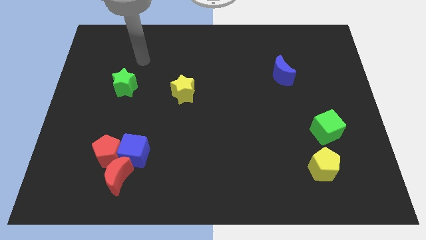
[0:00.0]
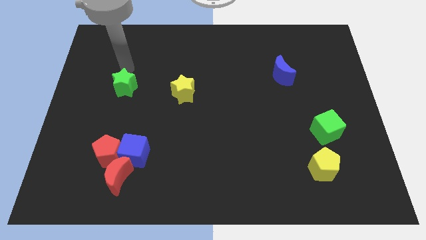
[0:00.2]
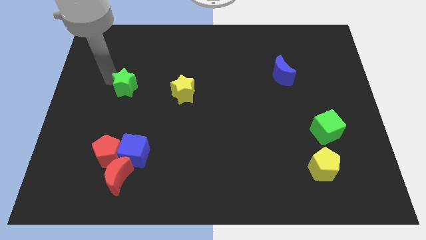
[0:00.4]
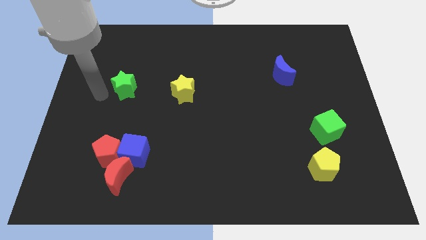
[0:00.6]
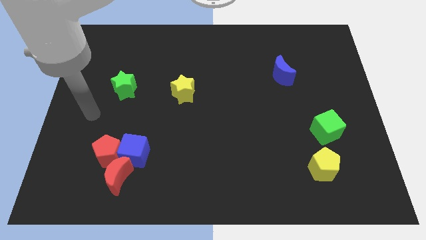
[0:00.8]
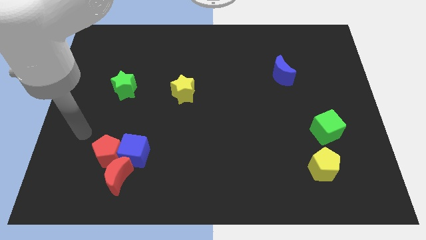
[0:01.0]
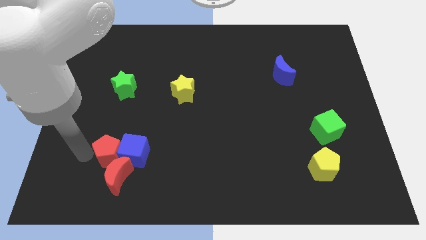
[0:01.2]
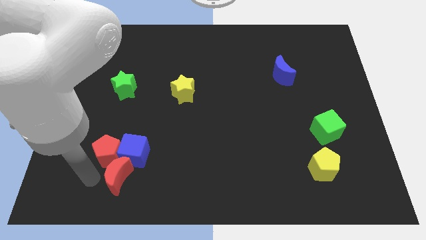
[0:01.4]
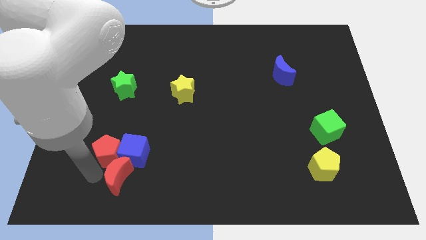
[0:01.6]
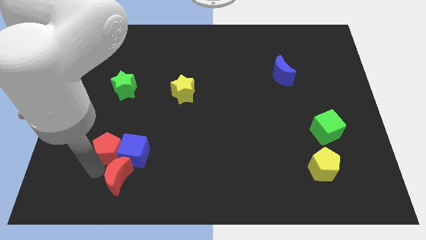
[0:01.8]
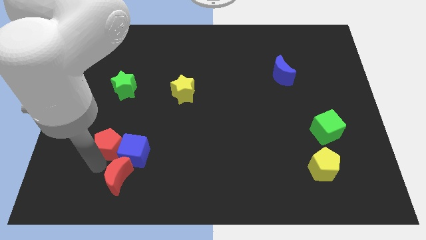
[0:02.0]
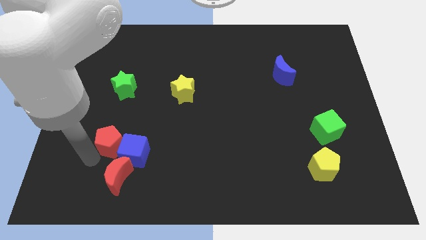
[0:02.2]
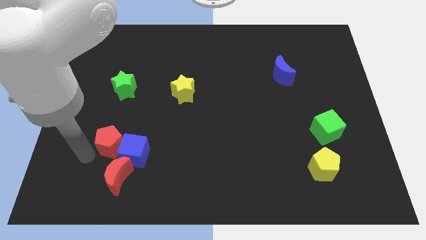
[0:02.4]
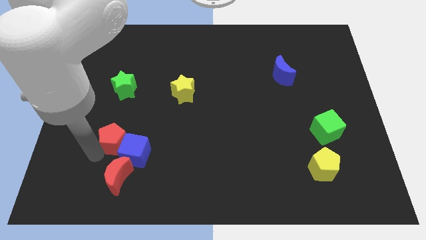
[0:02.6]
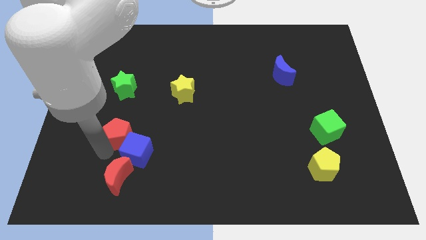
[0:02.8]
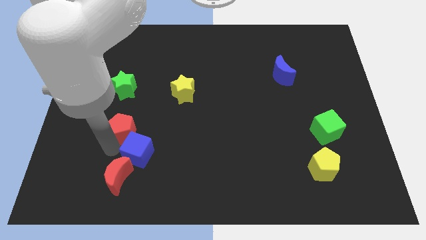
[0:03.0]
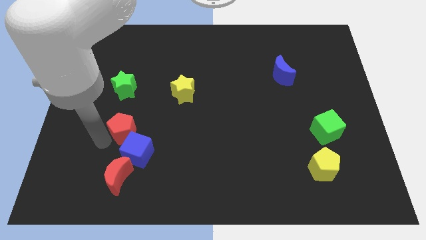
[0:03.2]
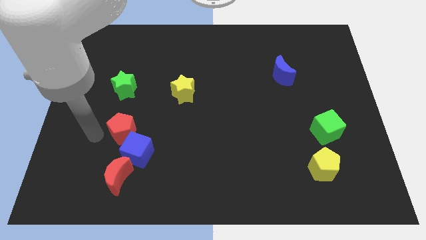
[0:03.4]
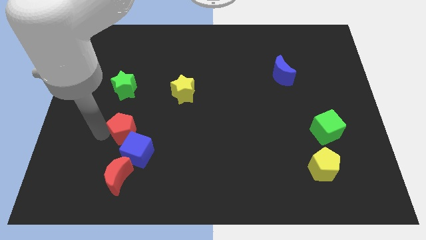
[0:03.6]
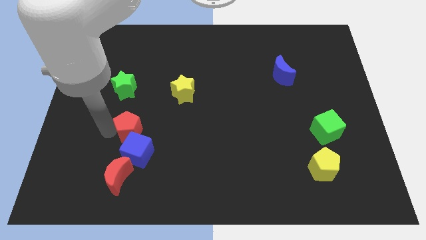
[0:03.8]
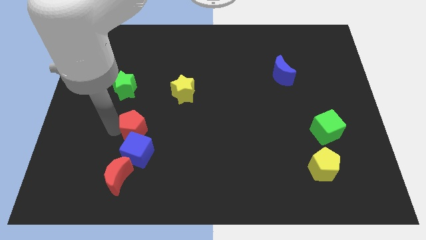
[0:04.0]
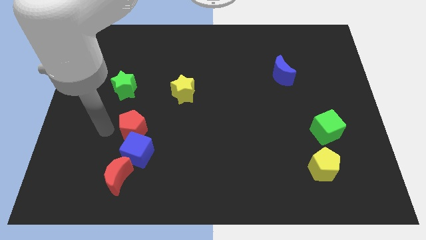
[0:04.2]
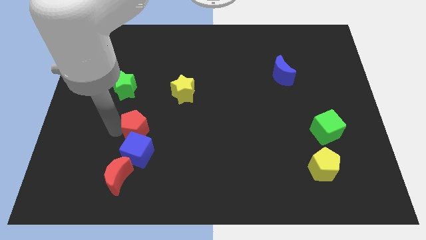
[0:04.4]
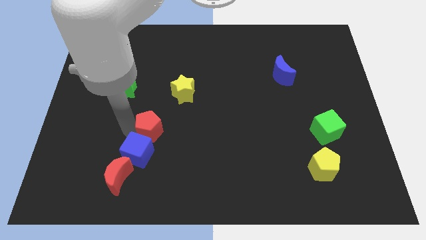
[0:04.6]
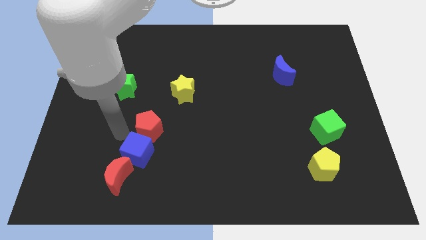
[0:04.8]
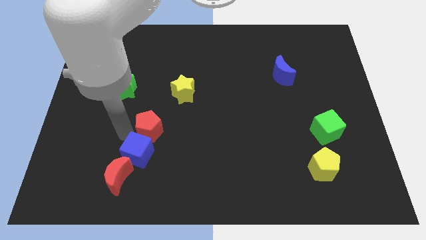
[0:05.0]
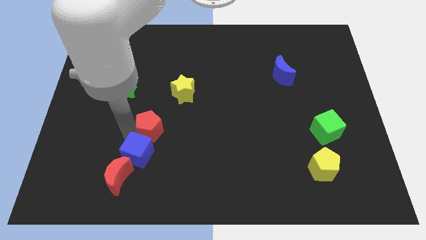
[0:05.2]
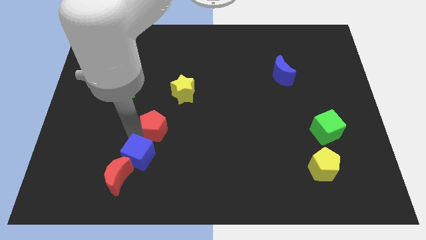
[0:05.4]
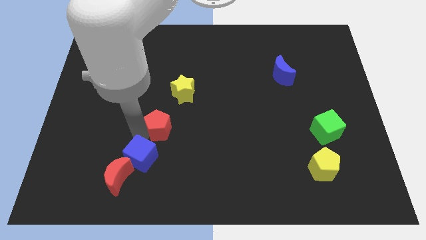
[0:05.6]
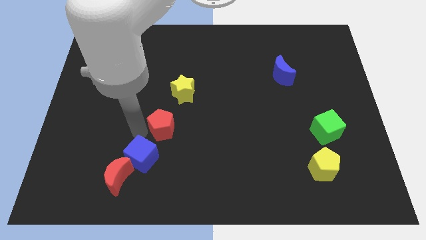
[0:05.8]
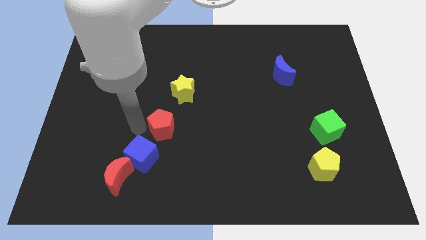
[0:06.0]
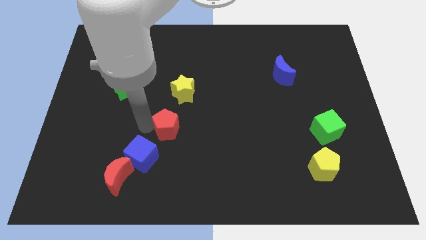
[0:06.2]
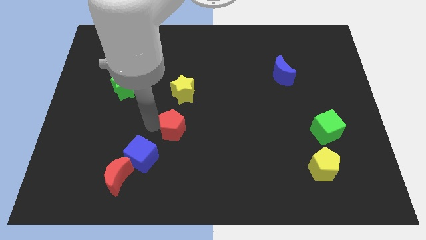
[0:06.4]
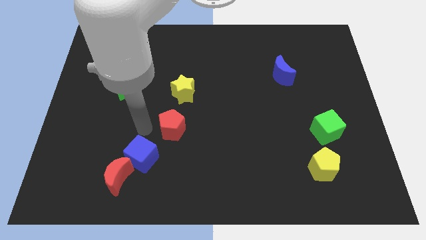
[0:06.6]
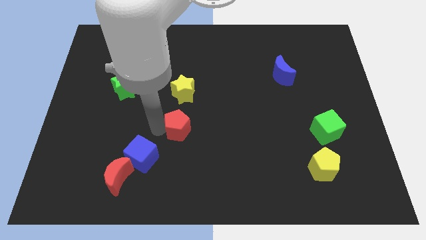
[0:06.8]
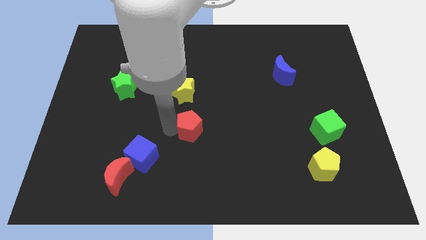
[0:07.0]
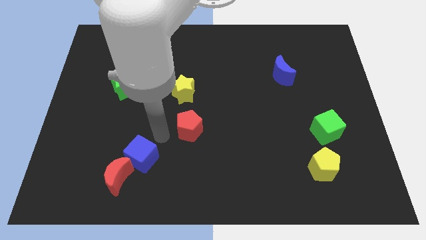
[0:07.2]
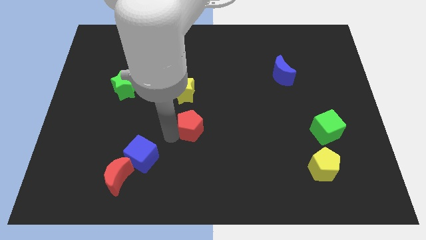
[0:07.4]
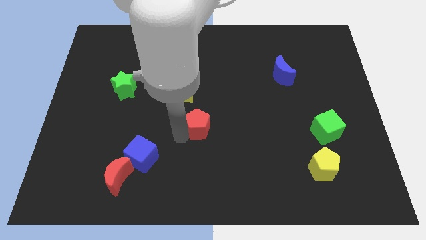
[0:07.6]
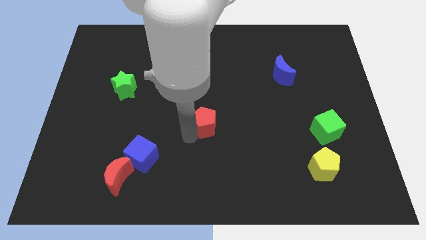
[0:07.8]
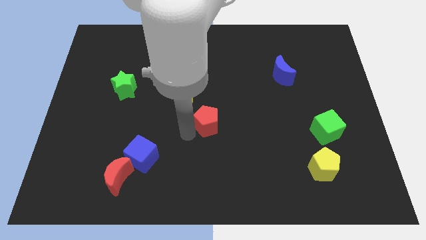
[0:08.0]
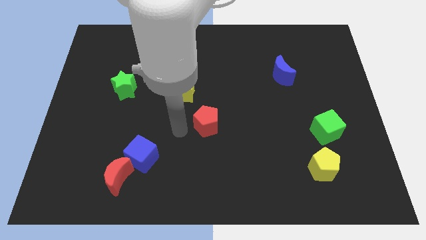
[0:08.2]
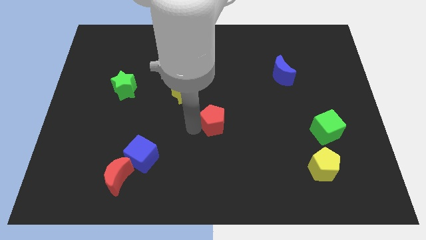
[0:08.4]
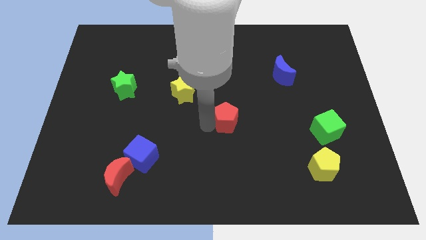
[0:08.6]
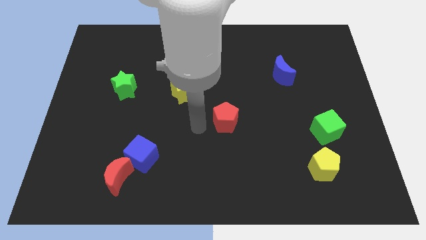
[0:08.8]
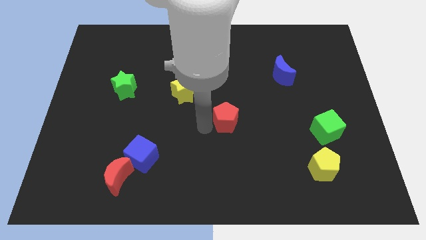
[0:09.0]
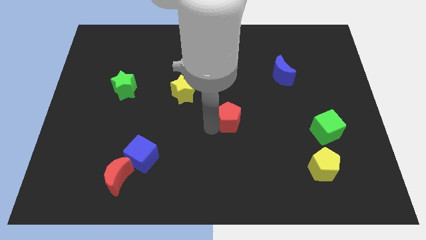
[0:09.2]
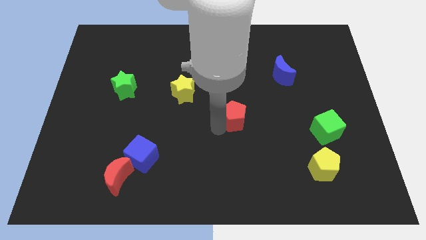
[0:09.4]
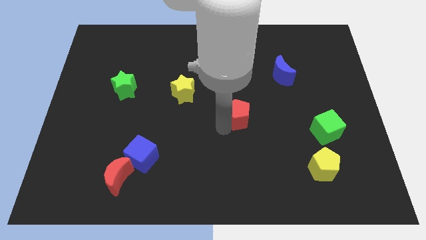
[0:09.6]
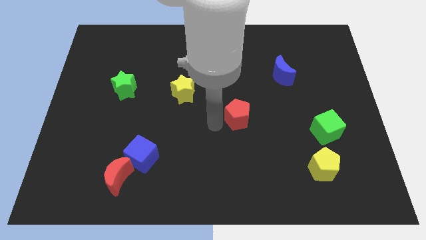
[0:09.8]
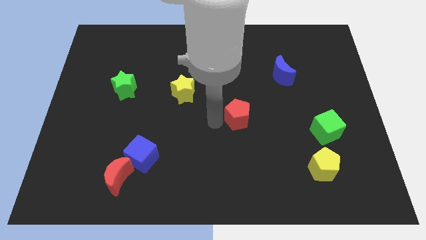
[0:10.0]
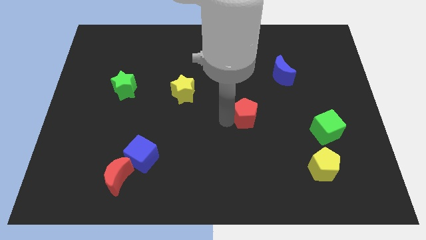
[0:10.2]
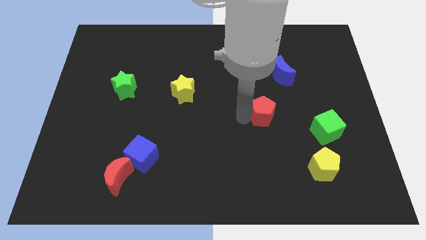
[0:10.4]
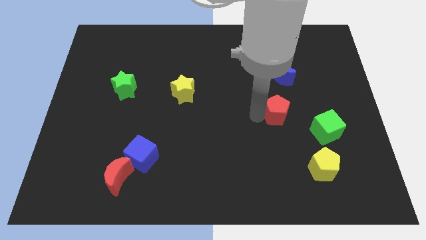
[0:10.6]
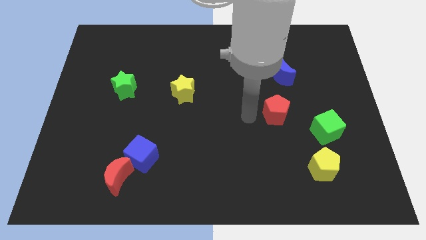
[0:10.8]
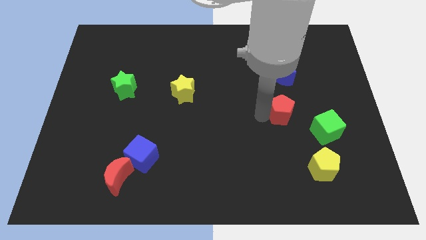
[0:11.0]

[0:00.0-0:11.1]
slide the red pentagon to the top left side of the green cube

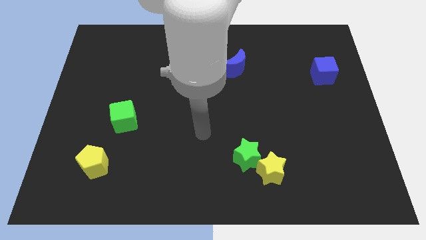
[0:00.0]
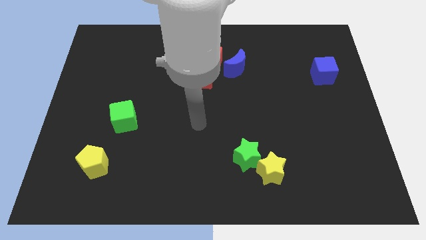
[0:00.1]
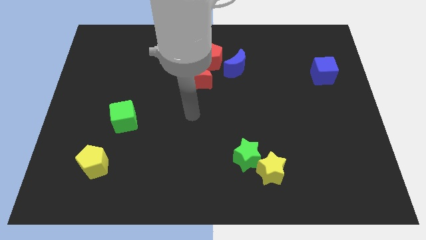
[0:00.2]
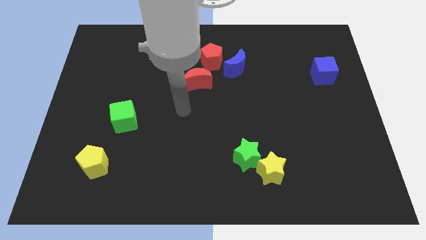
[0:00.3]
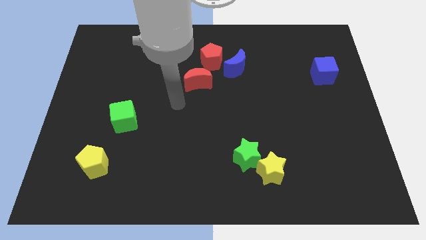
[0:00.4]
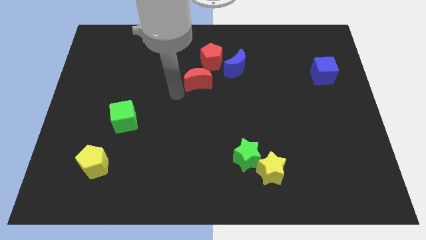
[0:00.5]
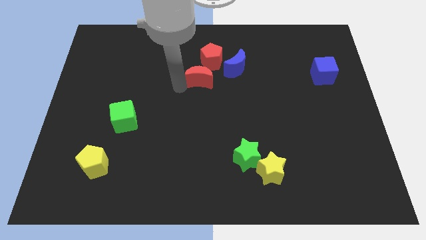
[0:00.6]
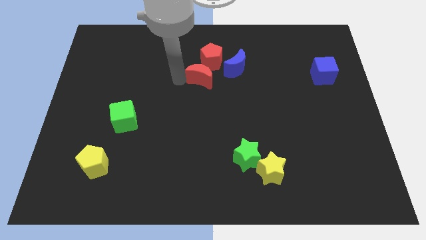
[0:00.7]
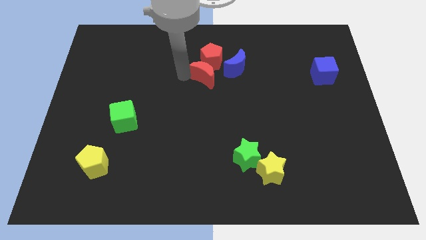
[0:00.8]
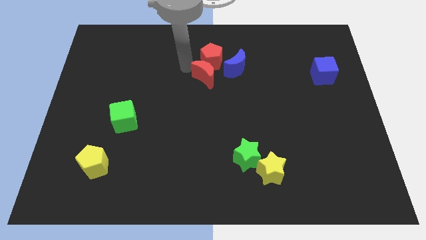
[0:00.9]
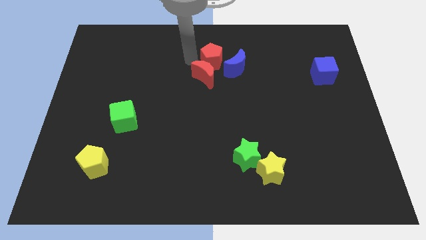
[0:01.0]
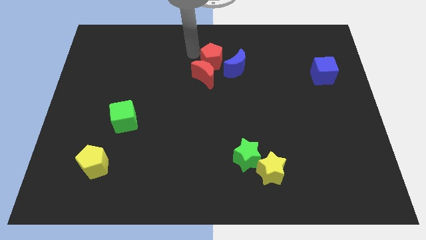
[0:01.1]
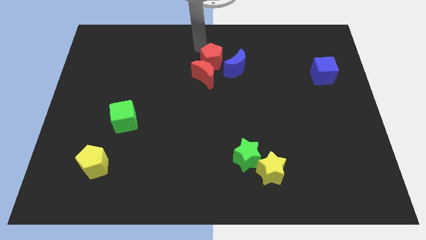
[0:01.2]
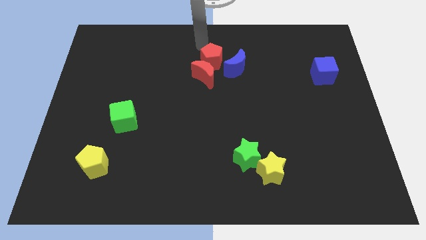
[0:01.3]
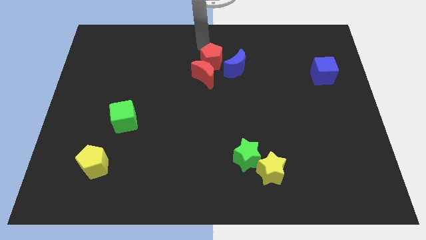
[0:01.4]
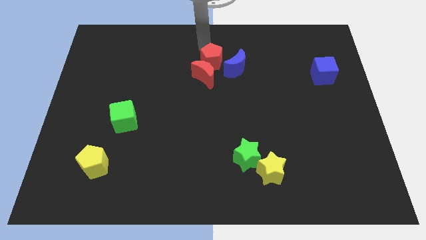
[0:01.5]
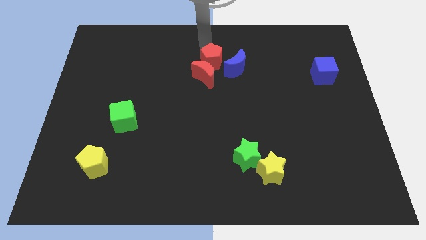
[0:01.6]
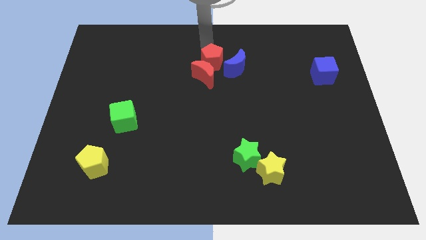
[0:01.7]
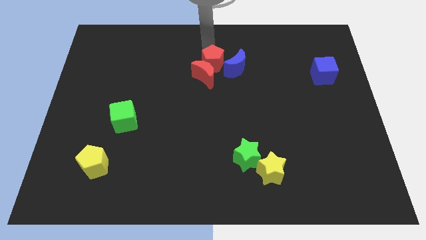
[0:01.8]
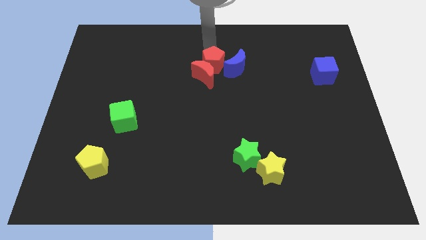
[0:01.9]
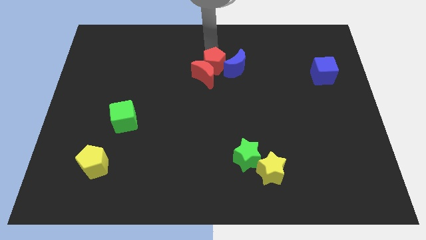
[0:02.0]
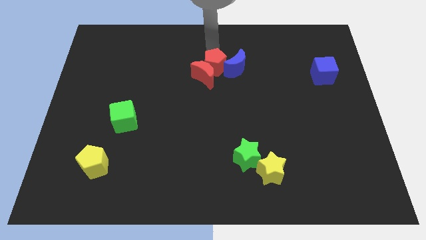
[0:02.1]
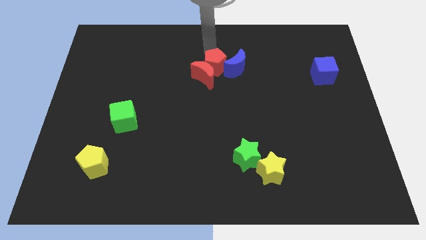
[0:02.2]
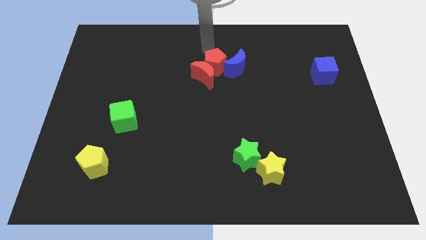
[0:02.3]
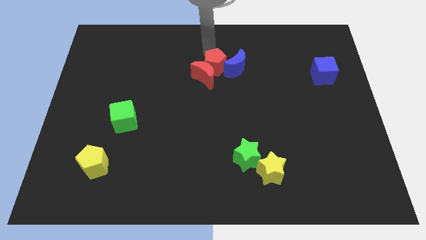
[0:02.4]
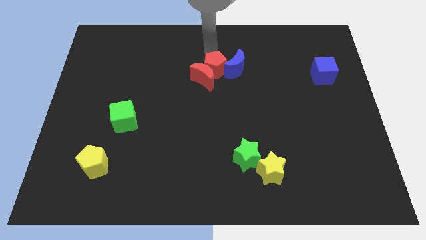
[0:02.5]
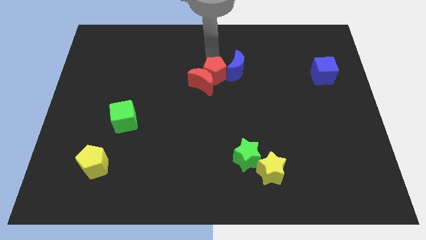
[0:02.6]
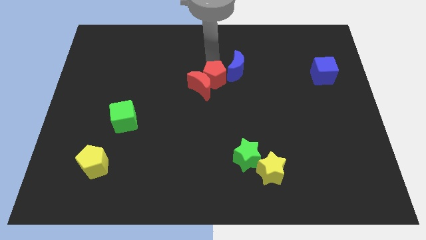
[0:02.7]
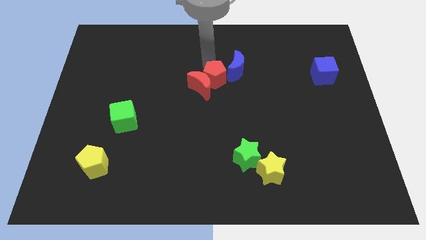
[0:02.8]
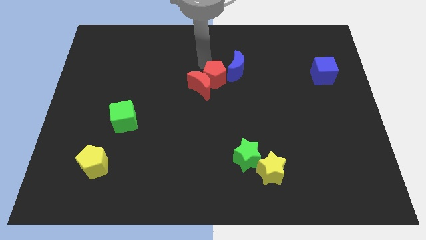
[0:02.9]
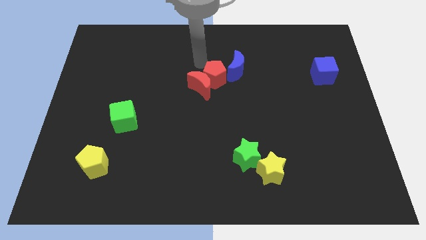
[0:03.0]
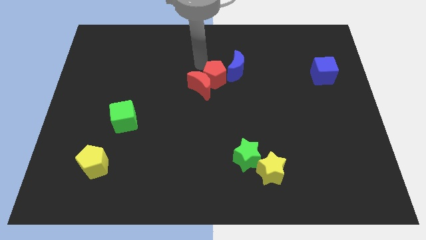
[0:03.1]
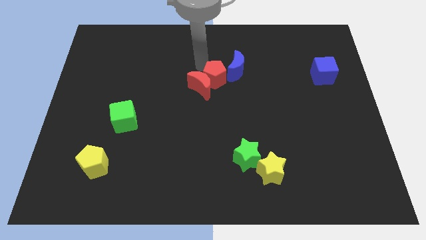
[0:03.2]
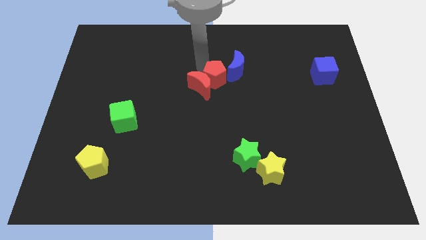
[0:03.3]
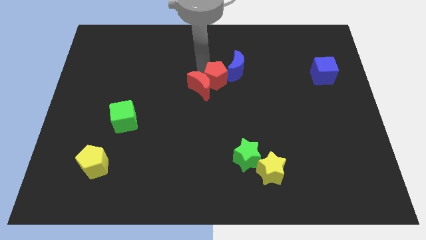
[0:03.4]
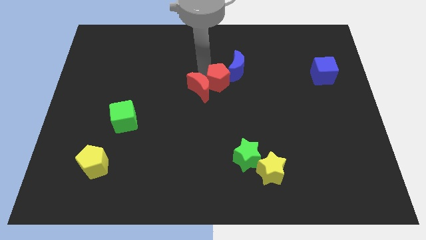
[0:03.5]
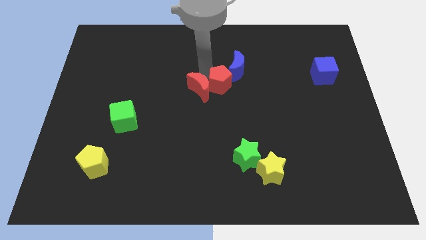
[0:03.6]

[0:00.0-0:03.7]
put the red pentagon to the bottom right side of the red moon
